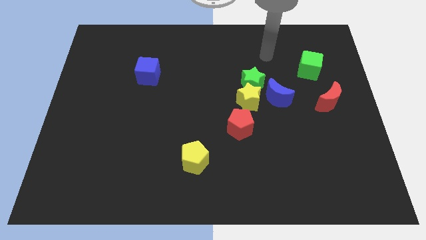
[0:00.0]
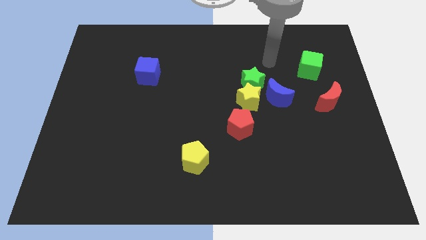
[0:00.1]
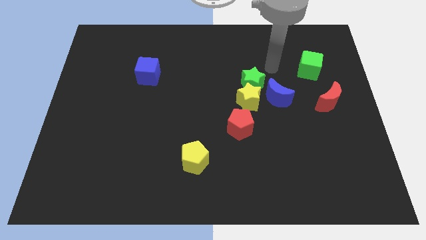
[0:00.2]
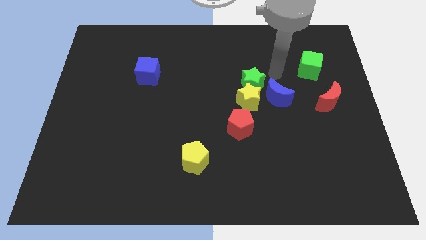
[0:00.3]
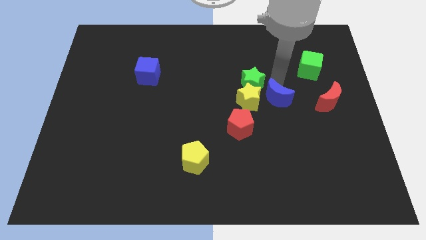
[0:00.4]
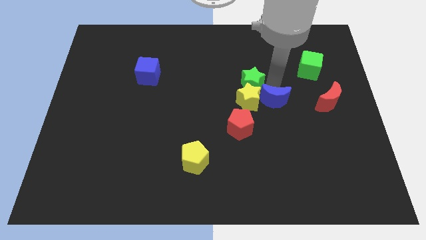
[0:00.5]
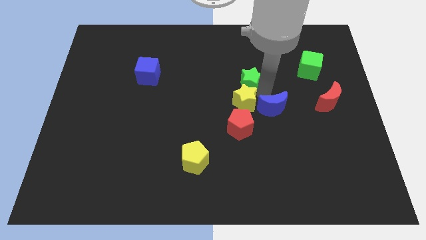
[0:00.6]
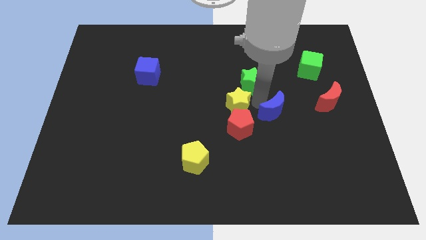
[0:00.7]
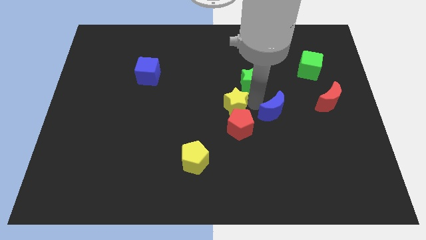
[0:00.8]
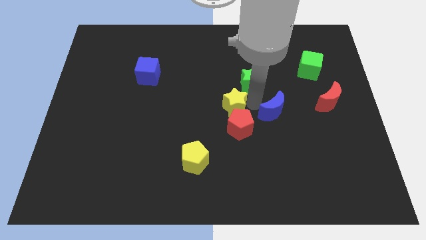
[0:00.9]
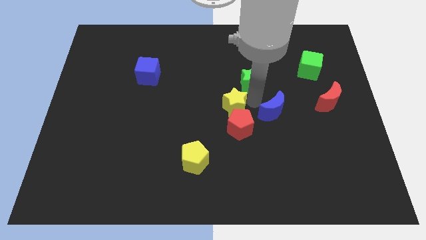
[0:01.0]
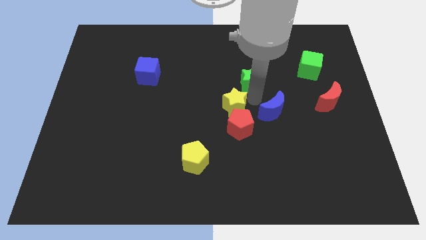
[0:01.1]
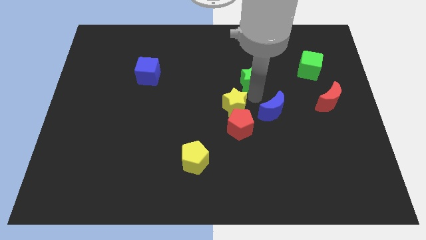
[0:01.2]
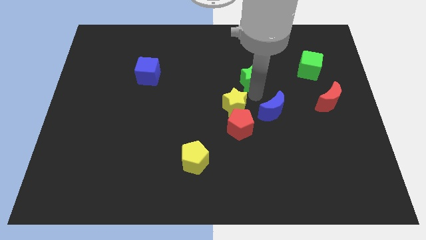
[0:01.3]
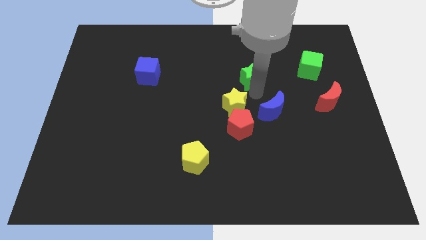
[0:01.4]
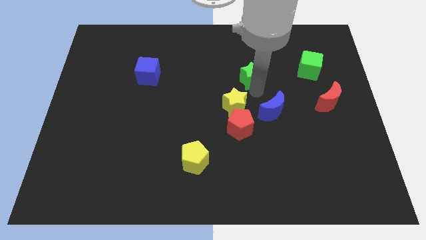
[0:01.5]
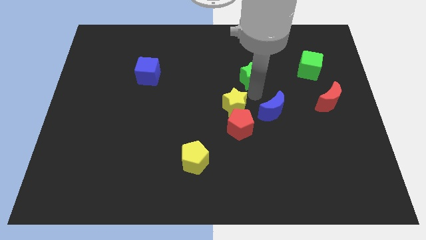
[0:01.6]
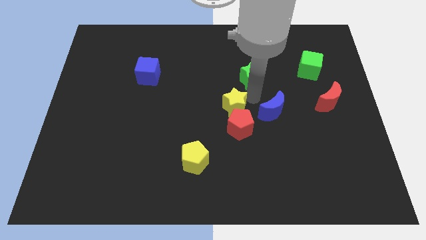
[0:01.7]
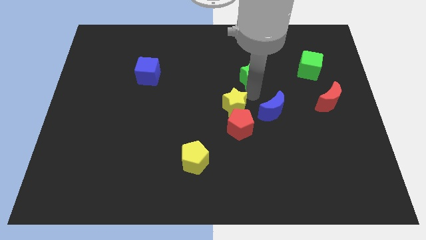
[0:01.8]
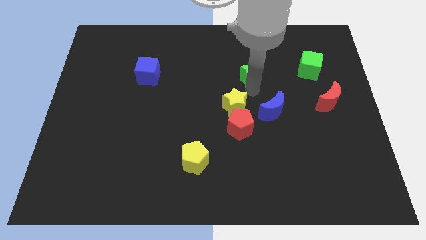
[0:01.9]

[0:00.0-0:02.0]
move the green star away from the yellow star and blue moon

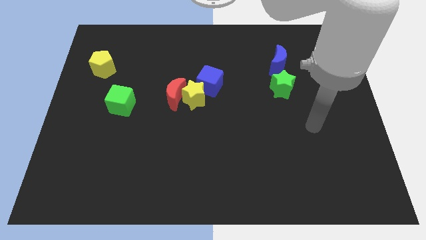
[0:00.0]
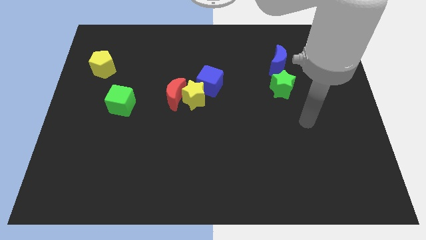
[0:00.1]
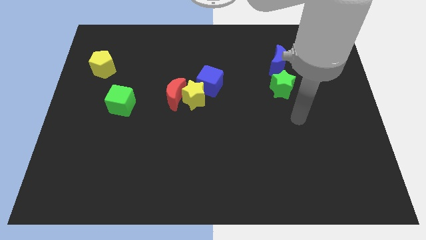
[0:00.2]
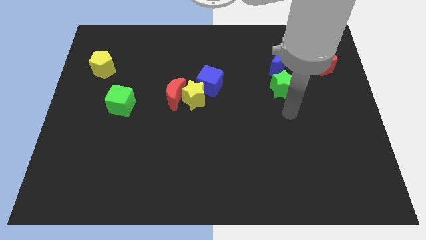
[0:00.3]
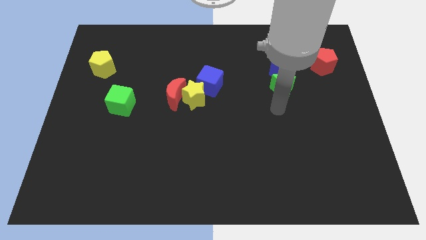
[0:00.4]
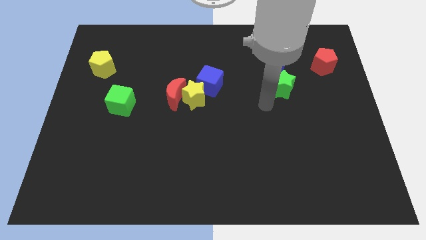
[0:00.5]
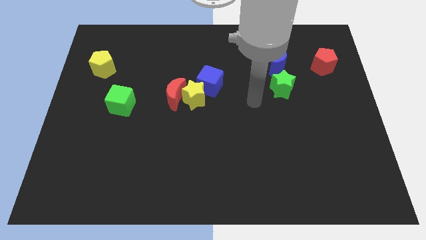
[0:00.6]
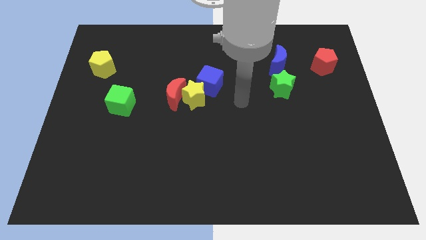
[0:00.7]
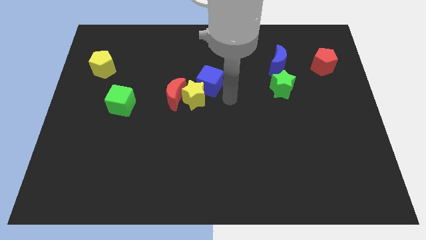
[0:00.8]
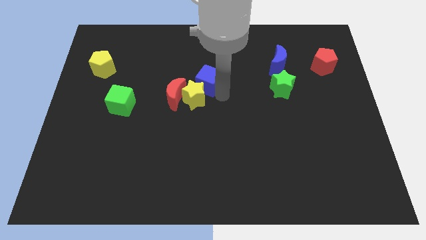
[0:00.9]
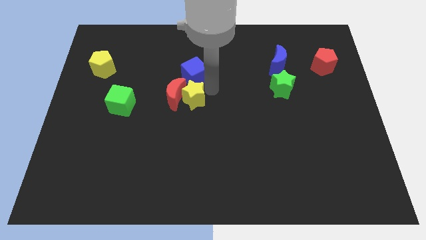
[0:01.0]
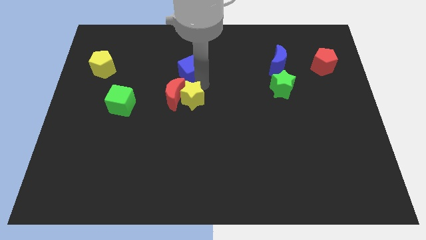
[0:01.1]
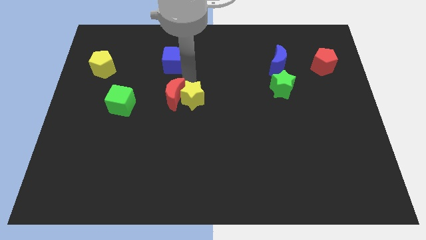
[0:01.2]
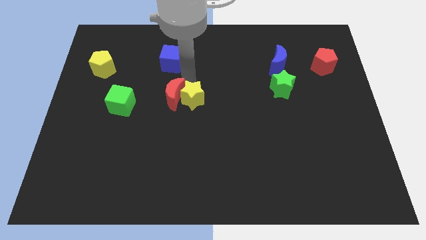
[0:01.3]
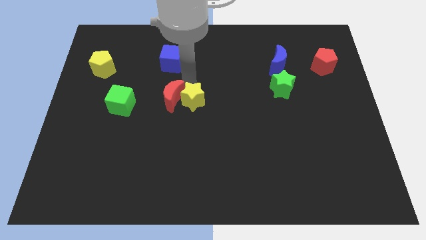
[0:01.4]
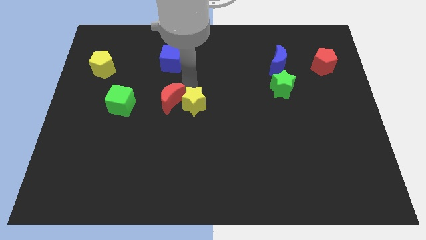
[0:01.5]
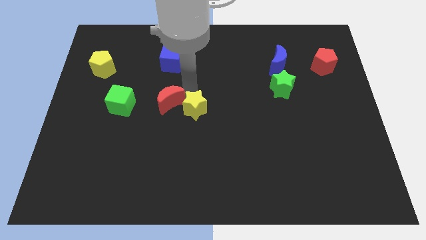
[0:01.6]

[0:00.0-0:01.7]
separate the yellow star from the red moon and blue cube

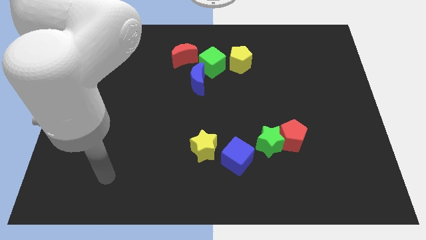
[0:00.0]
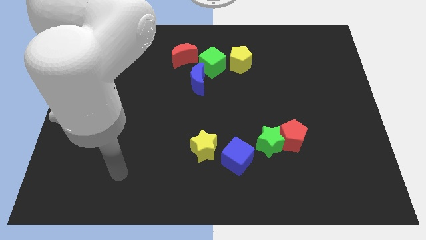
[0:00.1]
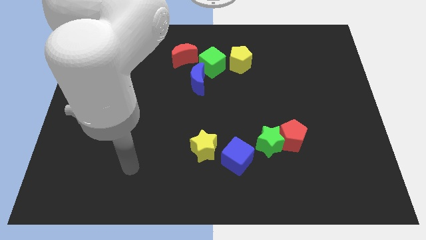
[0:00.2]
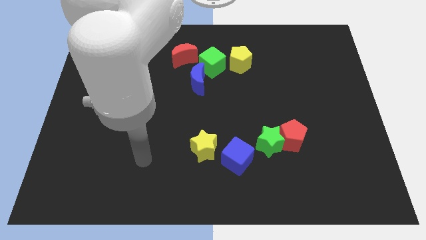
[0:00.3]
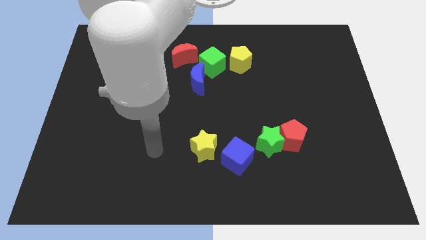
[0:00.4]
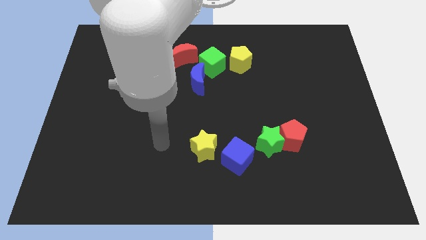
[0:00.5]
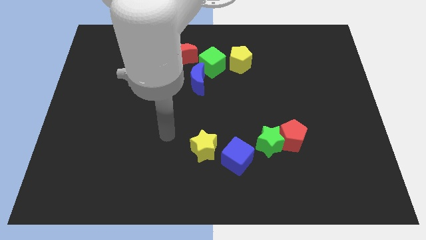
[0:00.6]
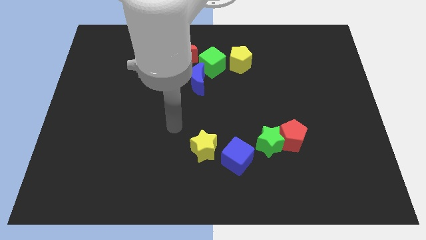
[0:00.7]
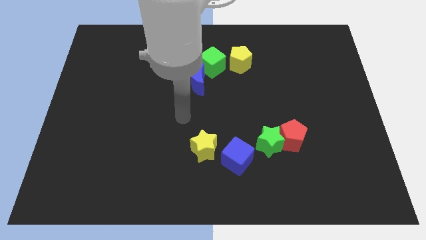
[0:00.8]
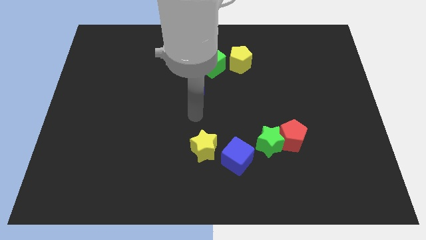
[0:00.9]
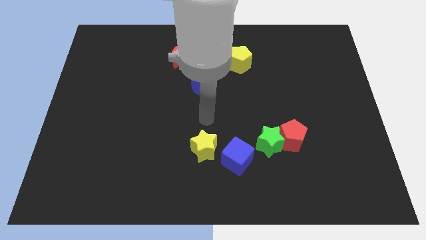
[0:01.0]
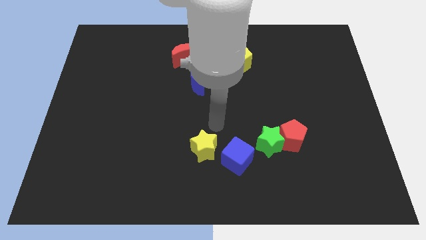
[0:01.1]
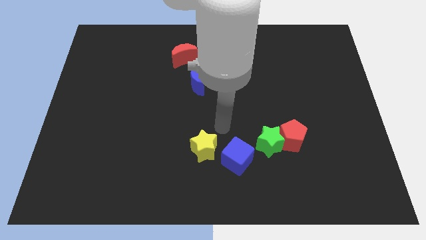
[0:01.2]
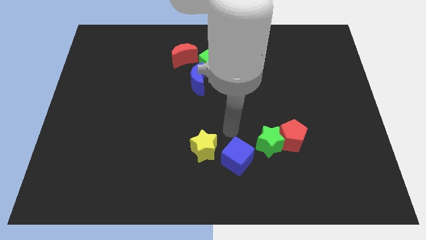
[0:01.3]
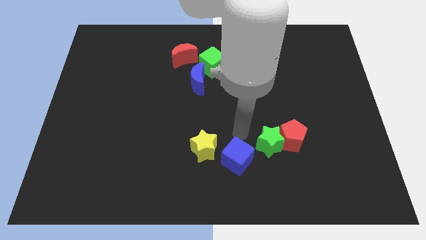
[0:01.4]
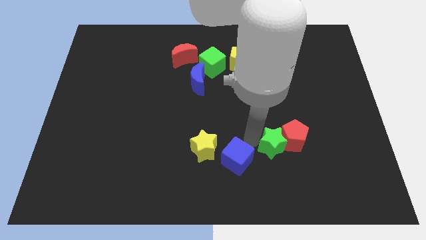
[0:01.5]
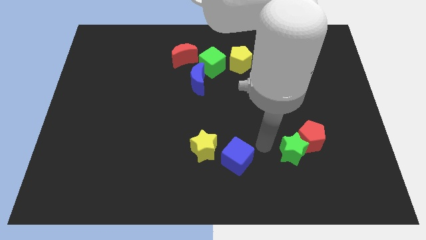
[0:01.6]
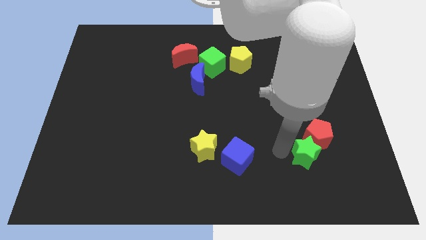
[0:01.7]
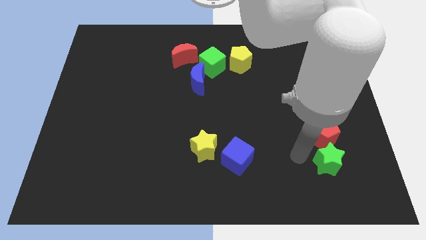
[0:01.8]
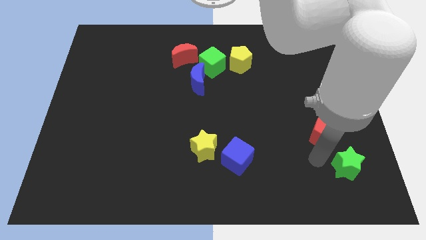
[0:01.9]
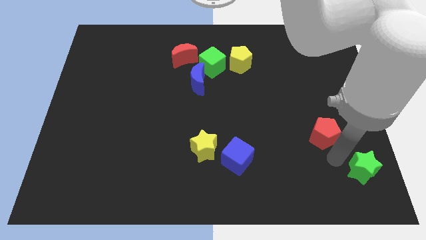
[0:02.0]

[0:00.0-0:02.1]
pull the red pentagon apart from the green star

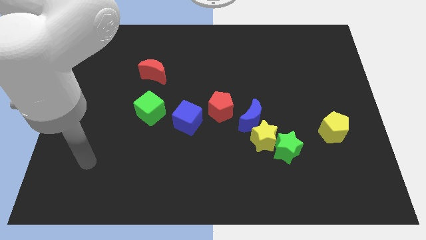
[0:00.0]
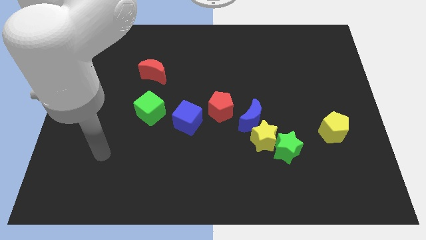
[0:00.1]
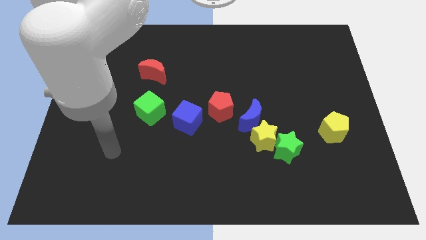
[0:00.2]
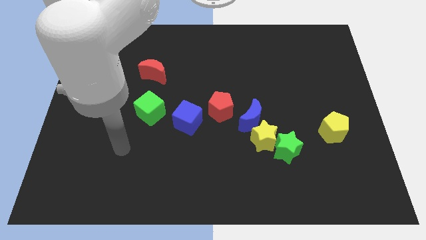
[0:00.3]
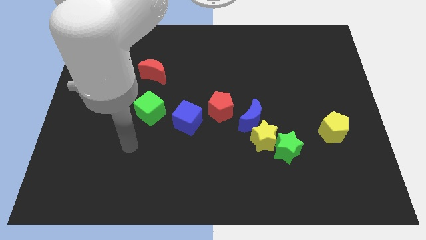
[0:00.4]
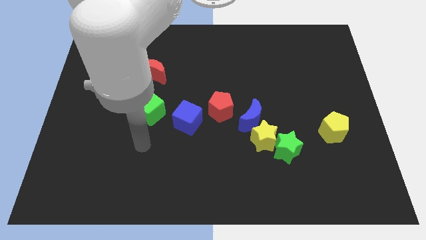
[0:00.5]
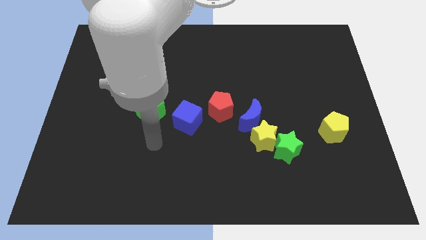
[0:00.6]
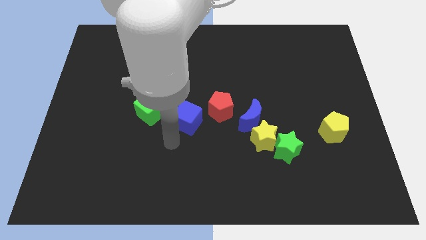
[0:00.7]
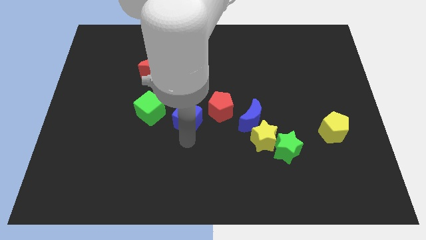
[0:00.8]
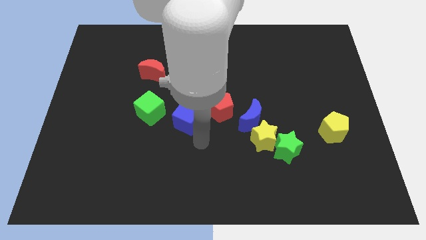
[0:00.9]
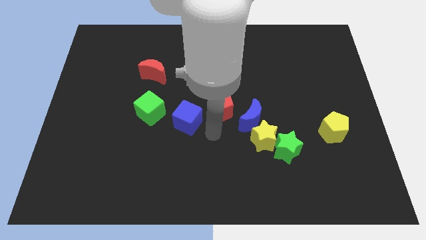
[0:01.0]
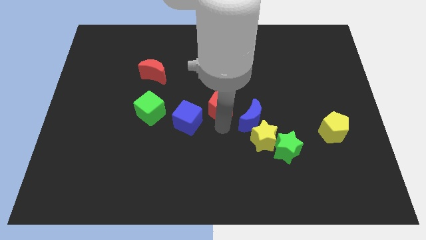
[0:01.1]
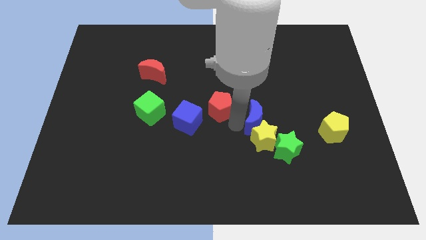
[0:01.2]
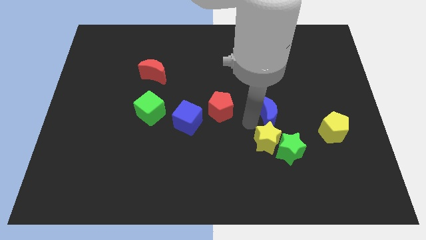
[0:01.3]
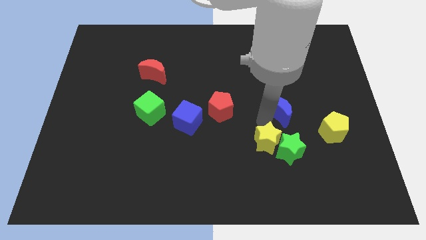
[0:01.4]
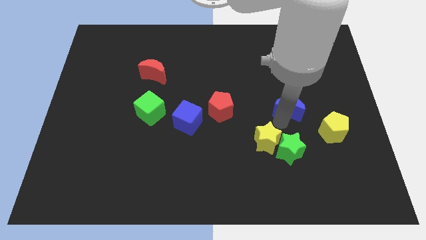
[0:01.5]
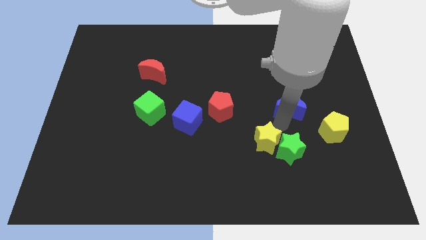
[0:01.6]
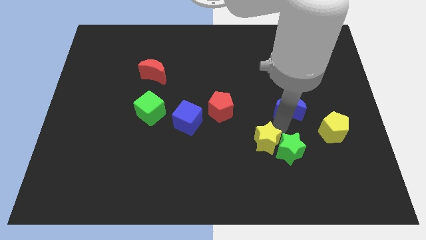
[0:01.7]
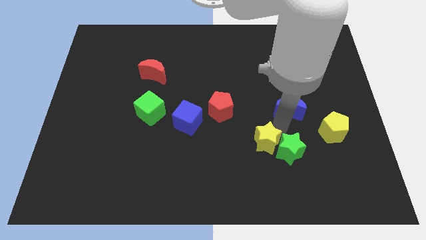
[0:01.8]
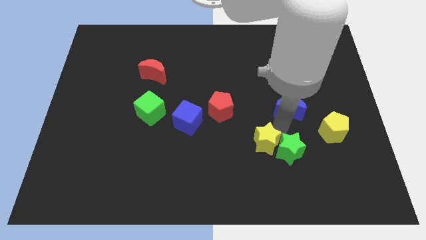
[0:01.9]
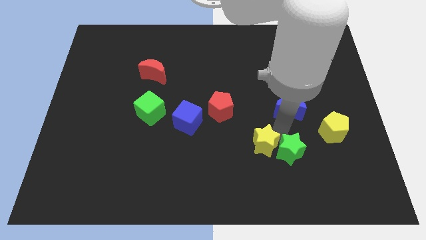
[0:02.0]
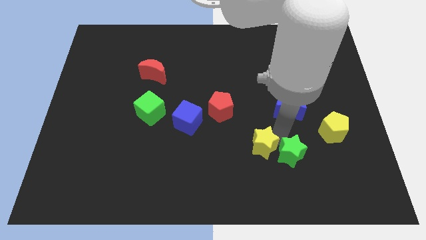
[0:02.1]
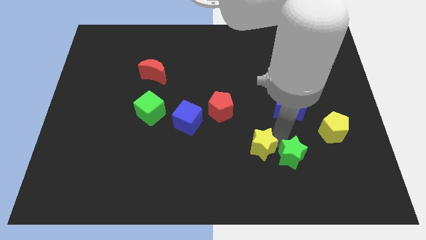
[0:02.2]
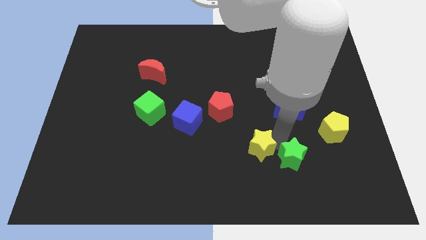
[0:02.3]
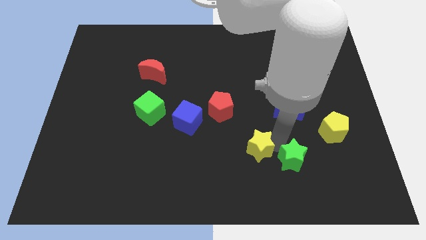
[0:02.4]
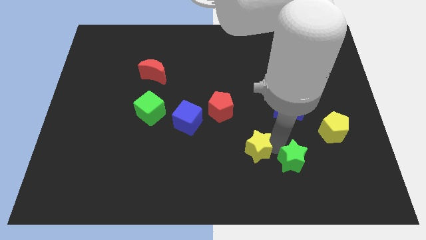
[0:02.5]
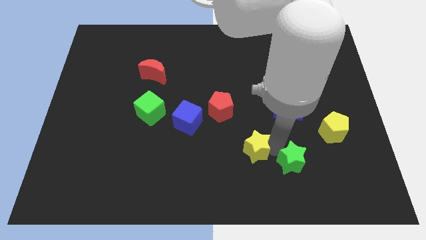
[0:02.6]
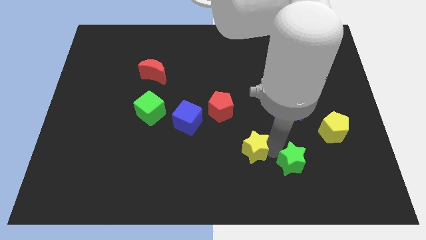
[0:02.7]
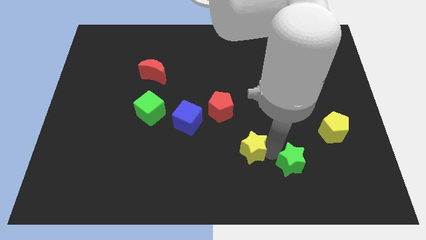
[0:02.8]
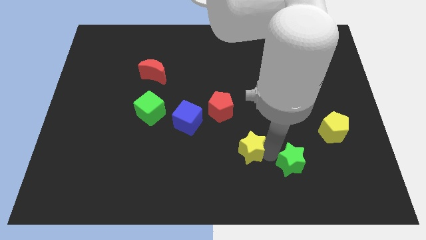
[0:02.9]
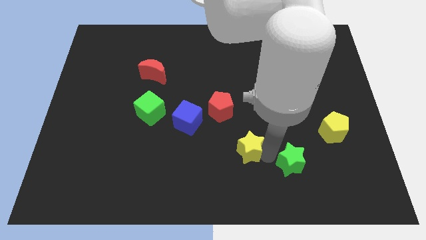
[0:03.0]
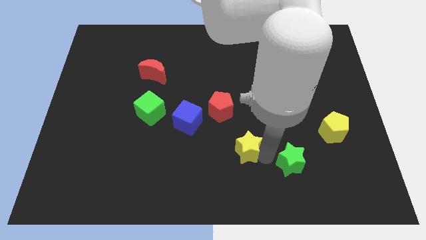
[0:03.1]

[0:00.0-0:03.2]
pull the yellow star apart from the green star and blue moon

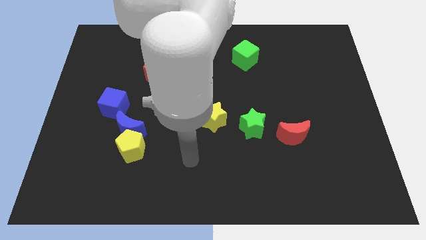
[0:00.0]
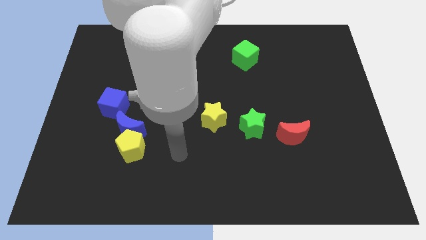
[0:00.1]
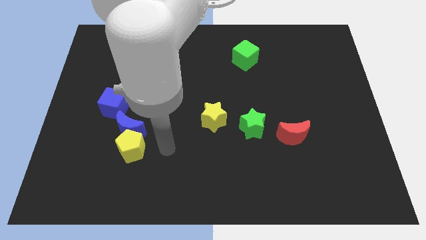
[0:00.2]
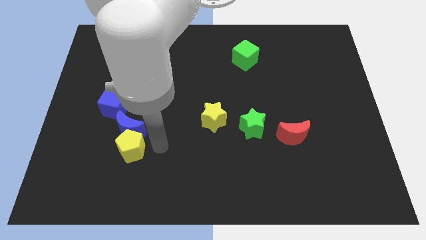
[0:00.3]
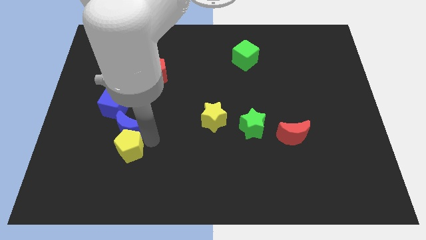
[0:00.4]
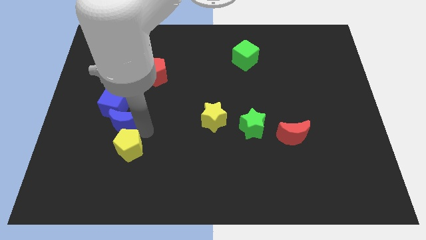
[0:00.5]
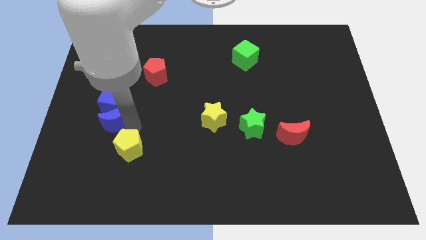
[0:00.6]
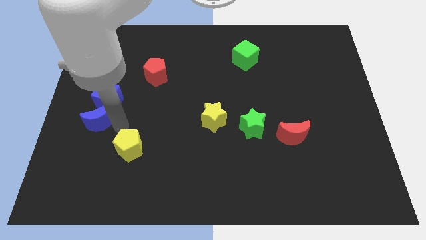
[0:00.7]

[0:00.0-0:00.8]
pull the yellow pentagon apart from the blue moon
